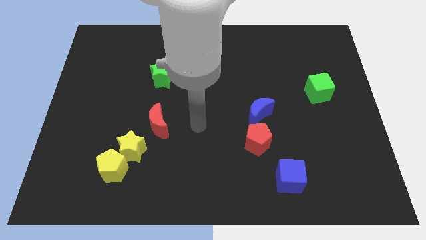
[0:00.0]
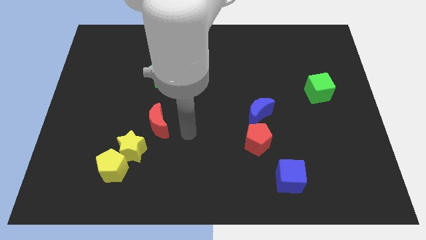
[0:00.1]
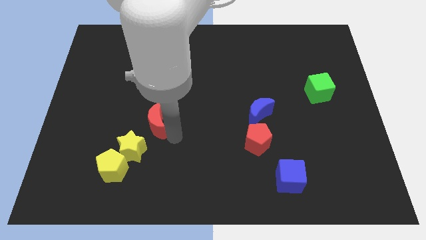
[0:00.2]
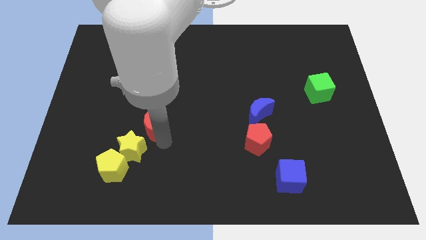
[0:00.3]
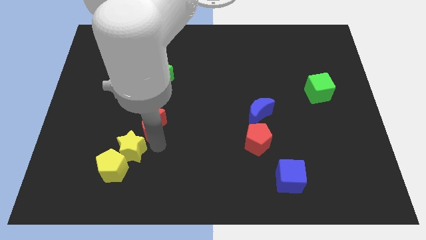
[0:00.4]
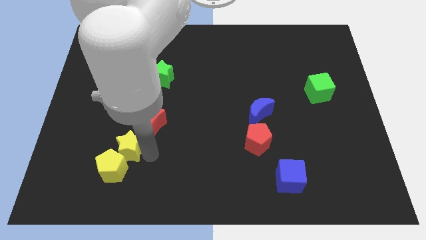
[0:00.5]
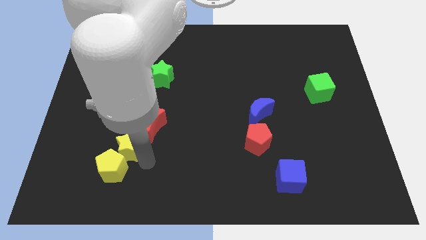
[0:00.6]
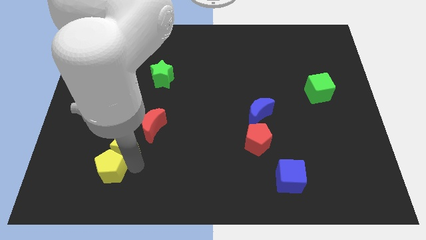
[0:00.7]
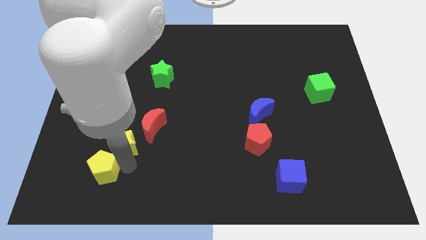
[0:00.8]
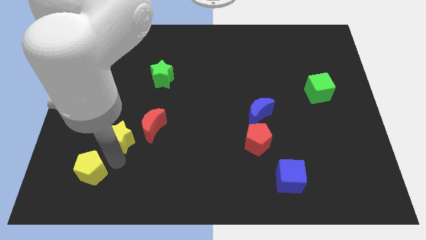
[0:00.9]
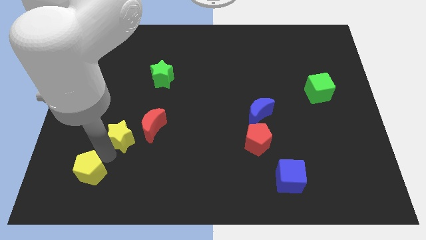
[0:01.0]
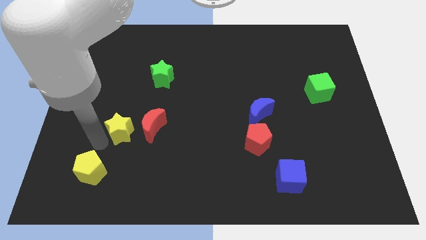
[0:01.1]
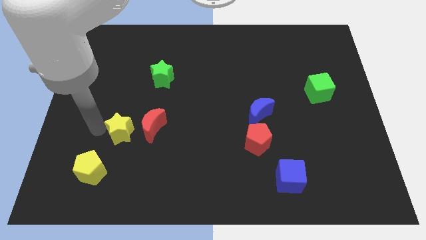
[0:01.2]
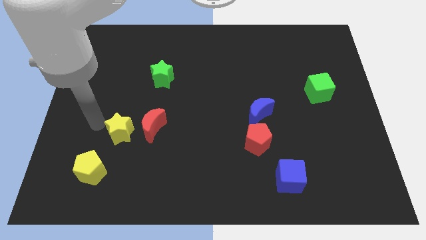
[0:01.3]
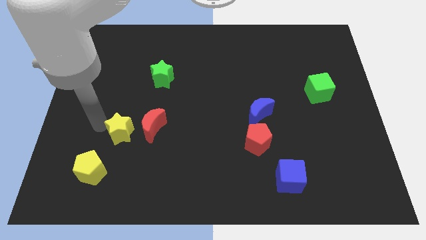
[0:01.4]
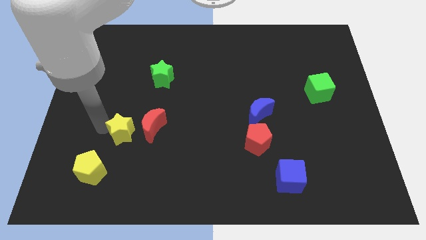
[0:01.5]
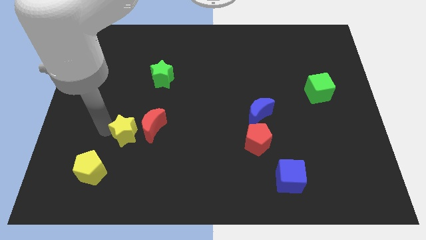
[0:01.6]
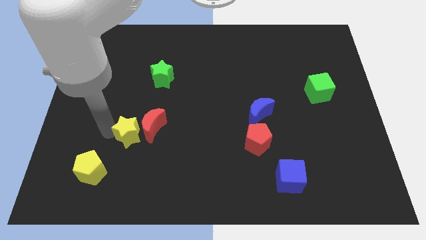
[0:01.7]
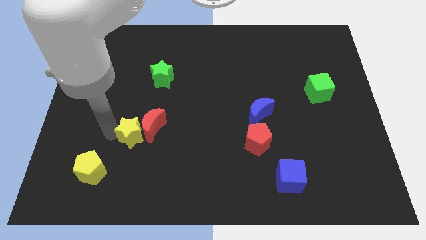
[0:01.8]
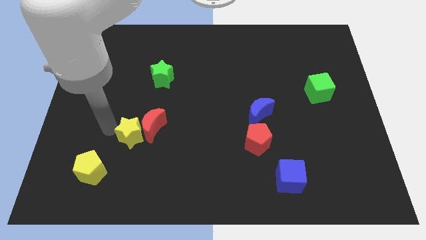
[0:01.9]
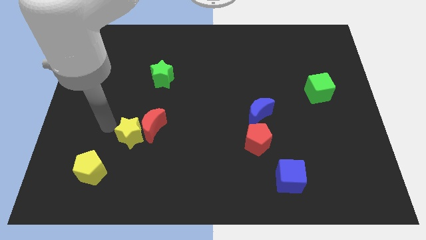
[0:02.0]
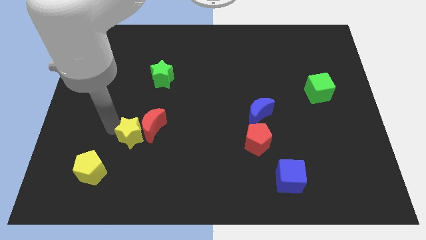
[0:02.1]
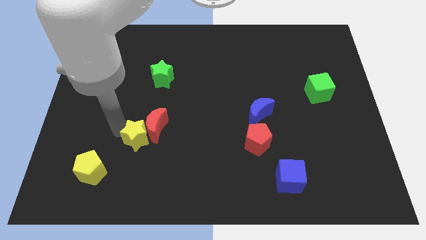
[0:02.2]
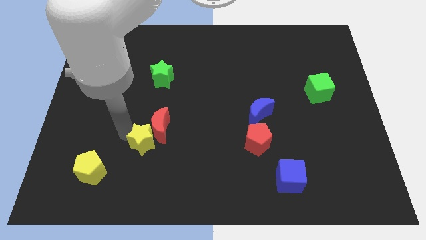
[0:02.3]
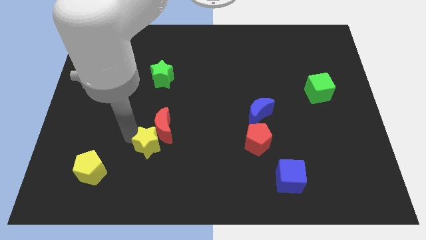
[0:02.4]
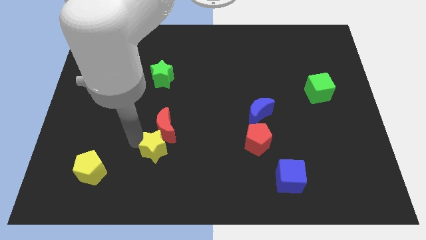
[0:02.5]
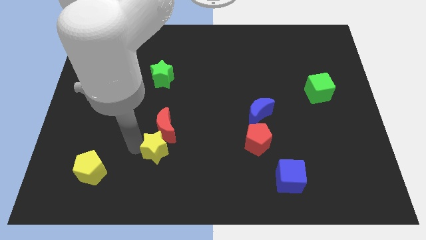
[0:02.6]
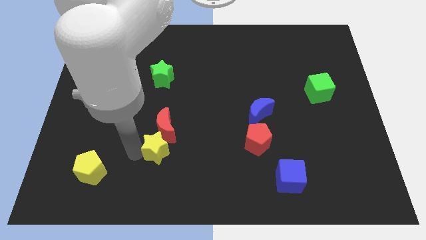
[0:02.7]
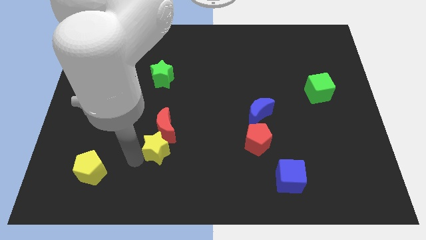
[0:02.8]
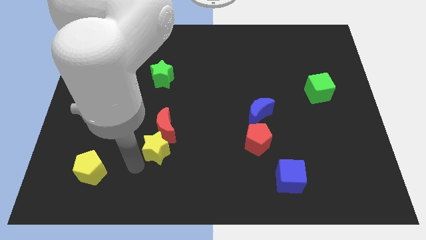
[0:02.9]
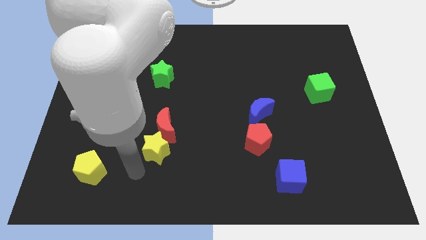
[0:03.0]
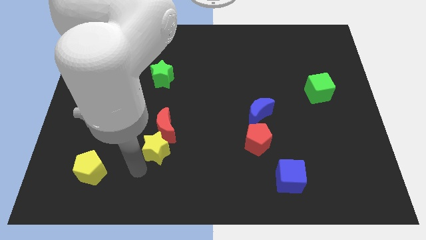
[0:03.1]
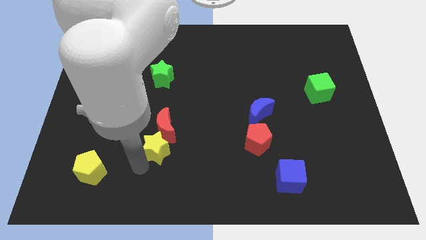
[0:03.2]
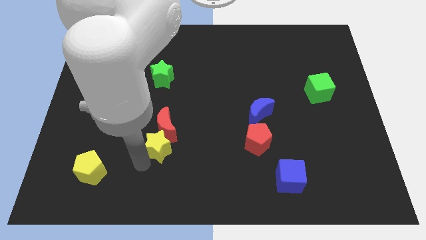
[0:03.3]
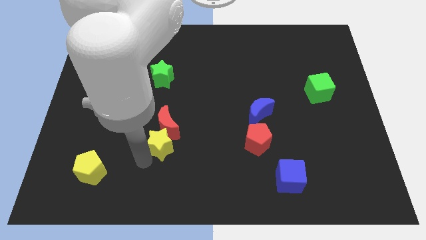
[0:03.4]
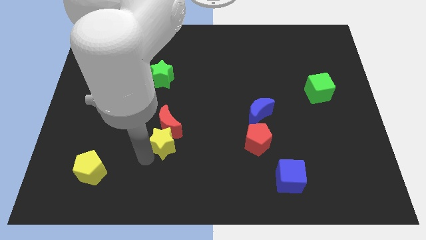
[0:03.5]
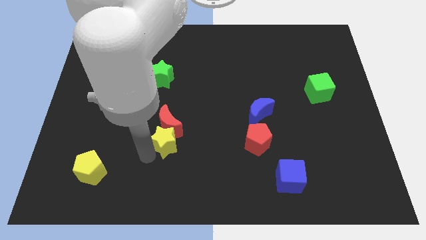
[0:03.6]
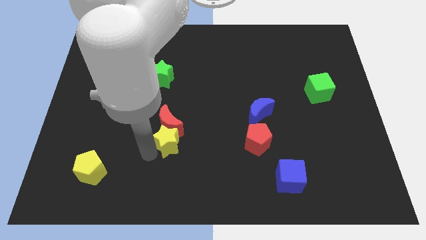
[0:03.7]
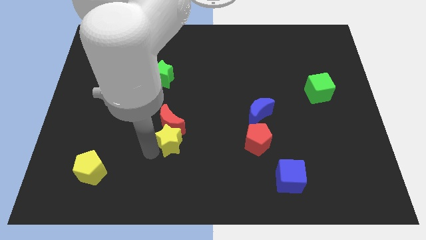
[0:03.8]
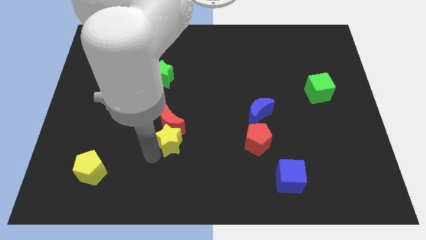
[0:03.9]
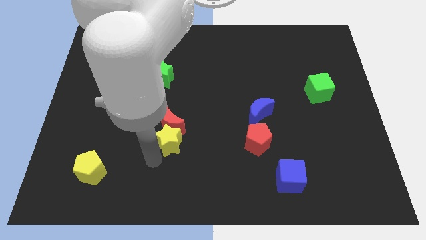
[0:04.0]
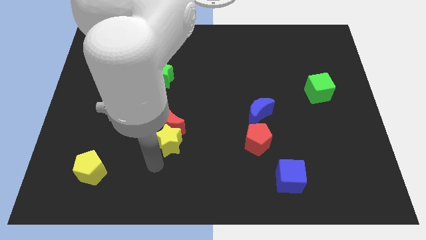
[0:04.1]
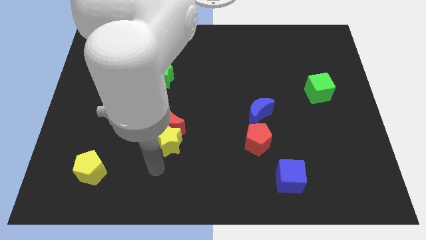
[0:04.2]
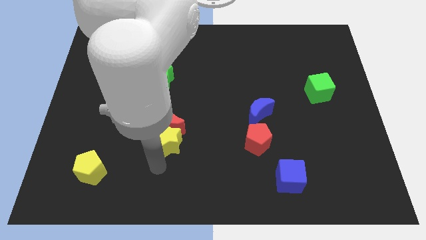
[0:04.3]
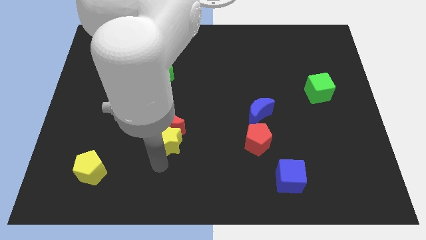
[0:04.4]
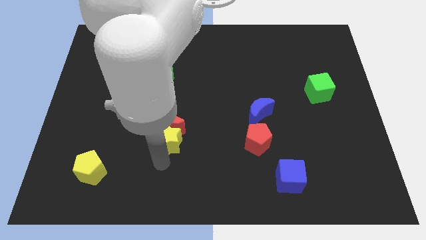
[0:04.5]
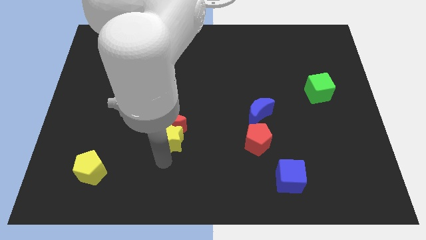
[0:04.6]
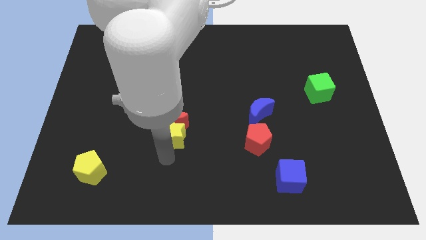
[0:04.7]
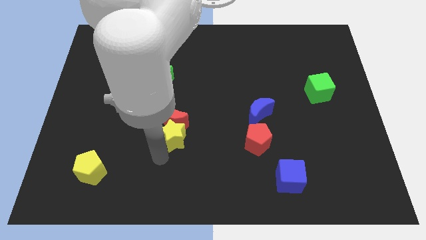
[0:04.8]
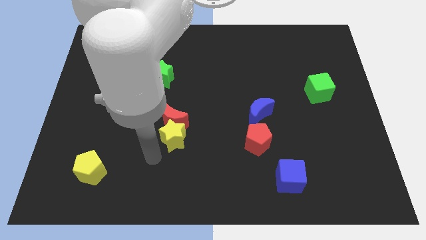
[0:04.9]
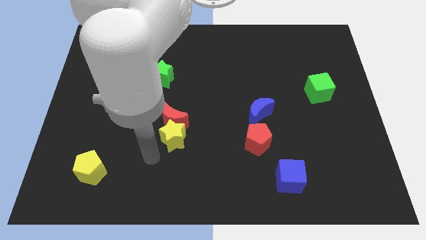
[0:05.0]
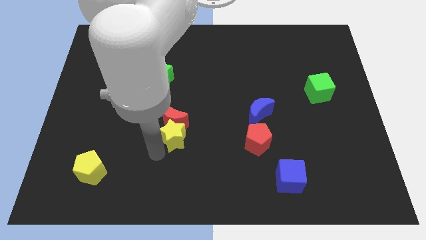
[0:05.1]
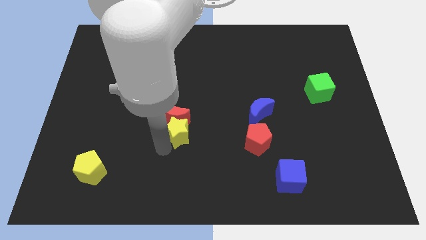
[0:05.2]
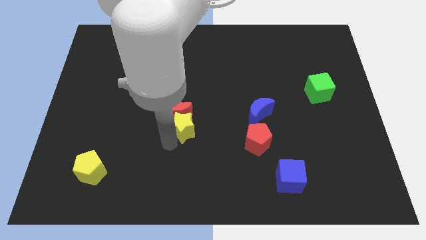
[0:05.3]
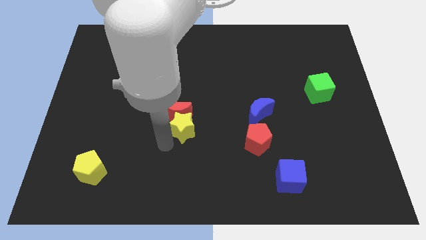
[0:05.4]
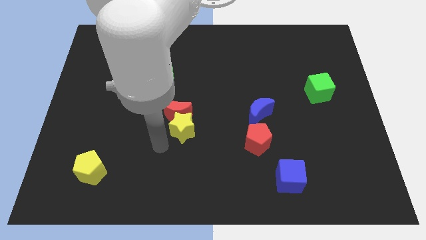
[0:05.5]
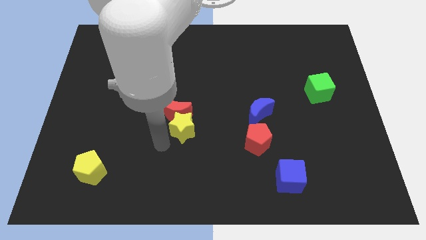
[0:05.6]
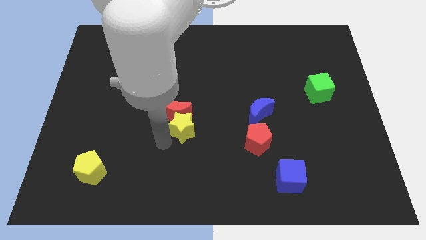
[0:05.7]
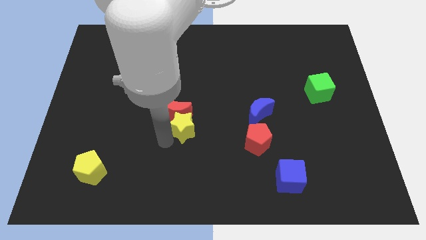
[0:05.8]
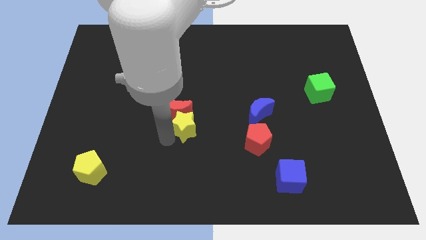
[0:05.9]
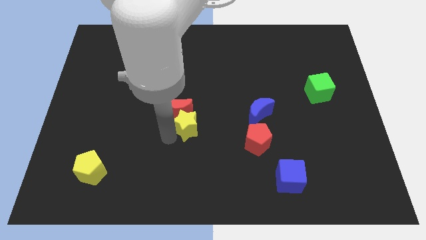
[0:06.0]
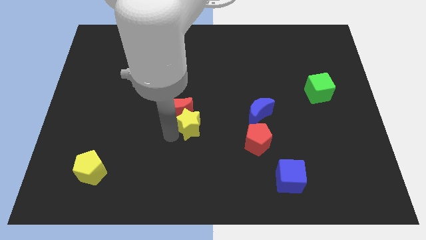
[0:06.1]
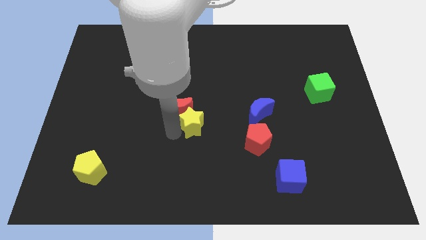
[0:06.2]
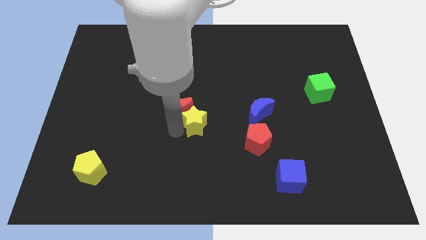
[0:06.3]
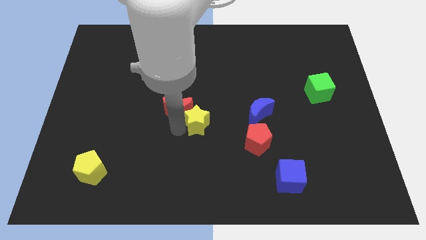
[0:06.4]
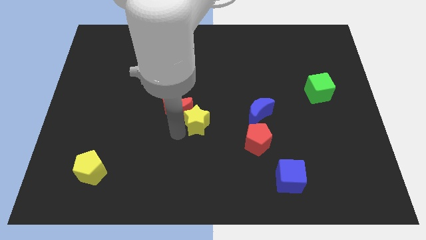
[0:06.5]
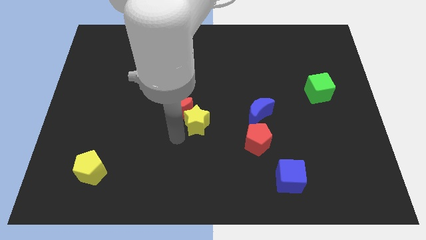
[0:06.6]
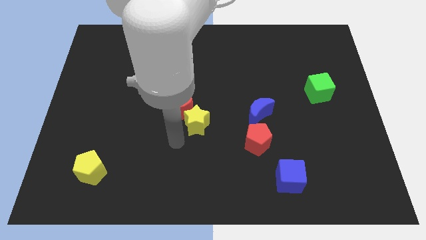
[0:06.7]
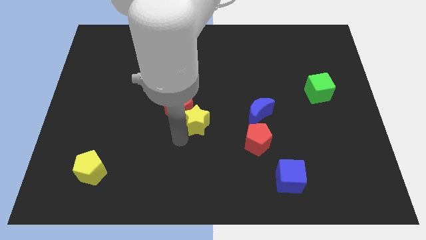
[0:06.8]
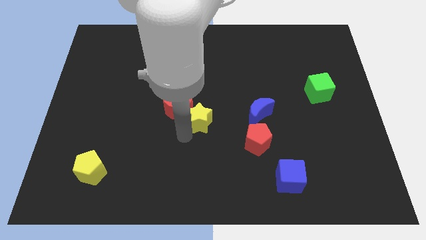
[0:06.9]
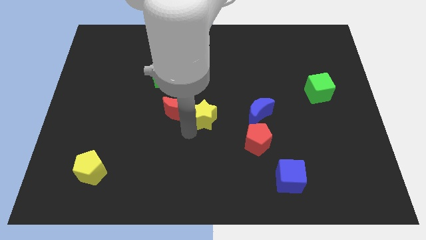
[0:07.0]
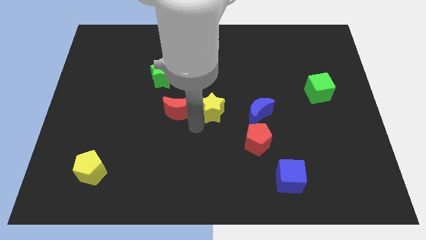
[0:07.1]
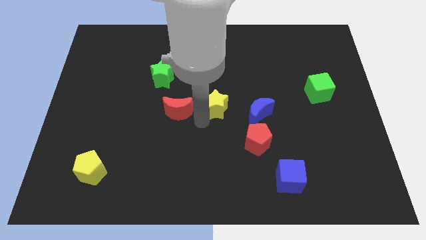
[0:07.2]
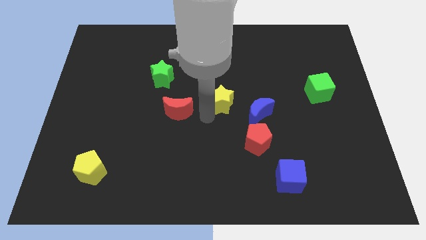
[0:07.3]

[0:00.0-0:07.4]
slide the yellow star to the top left side of the blue moon
